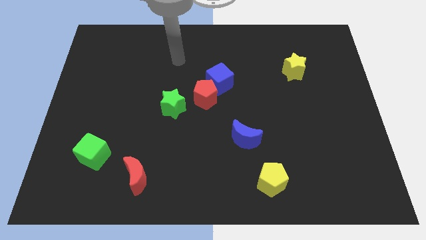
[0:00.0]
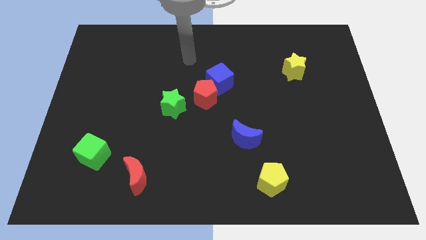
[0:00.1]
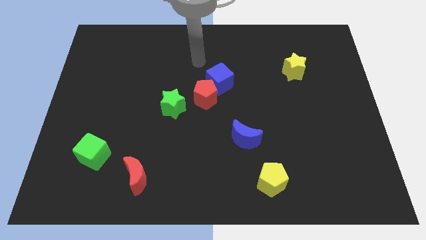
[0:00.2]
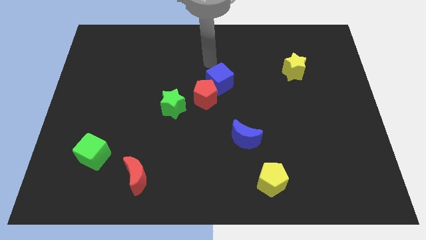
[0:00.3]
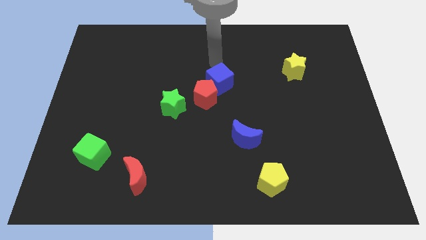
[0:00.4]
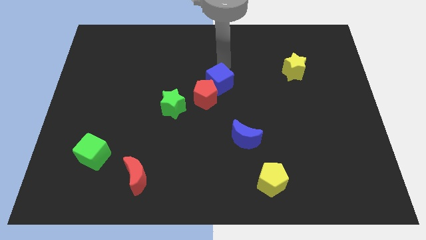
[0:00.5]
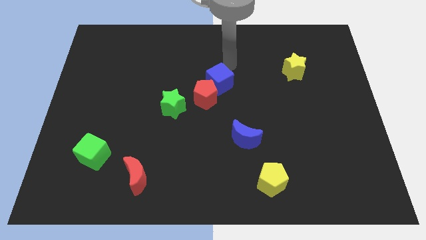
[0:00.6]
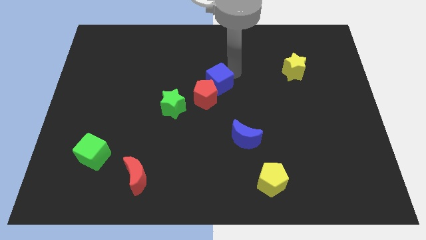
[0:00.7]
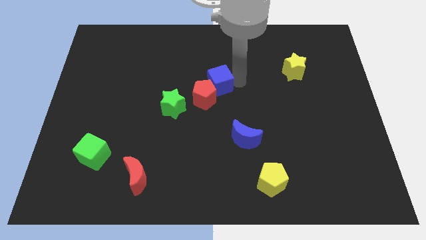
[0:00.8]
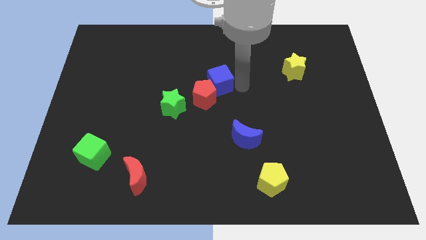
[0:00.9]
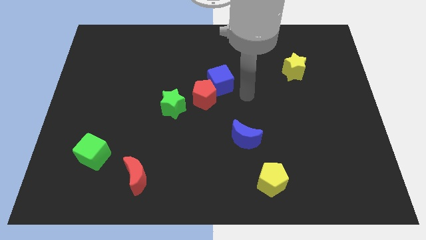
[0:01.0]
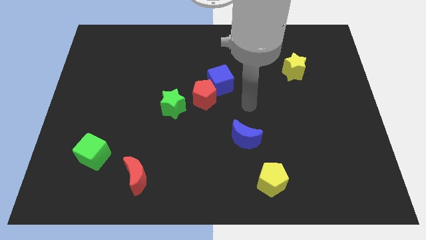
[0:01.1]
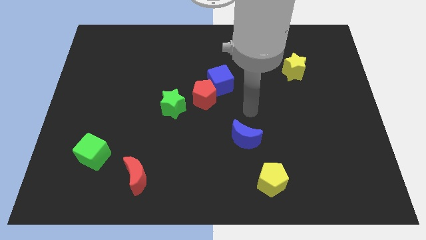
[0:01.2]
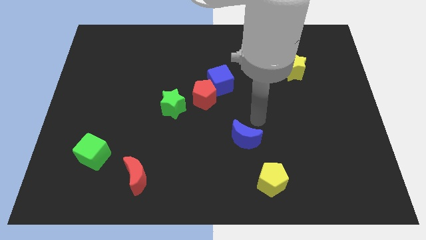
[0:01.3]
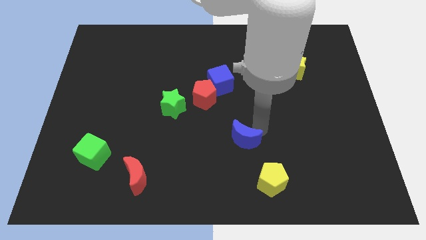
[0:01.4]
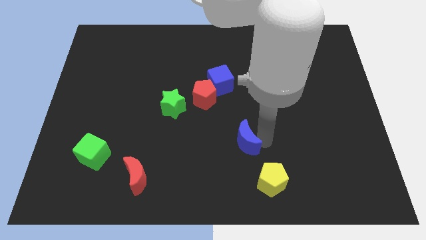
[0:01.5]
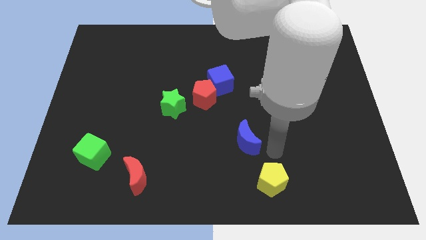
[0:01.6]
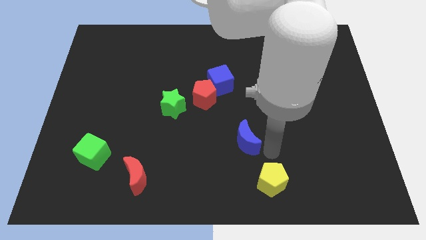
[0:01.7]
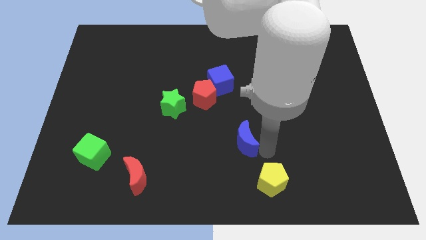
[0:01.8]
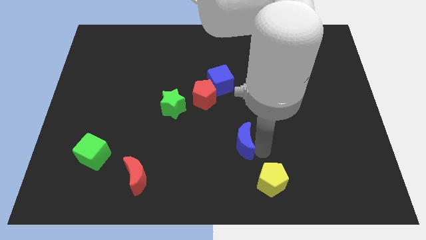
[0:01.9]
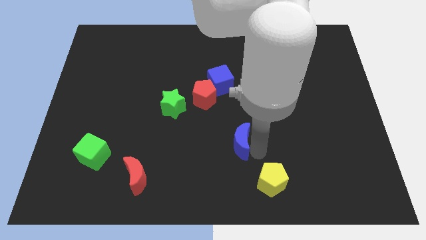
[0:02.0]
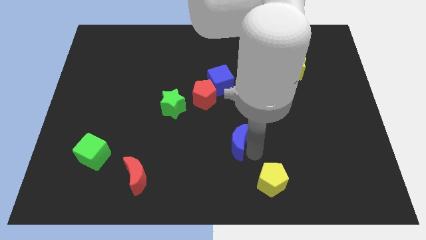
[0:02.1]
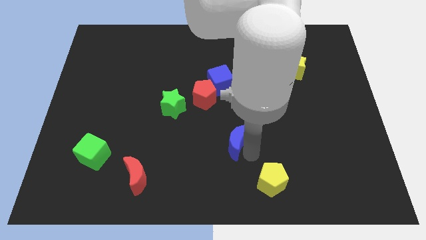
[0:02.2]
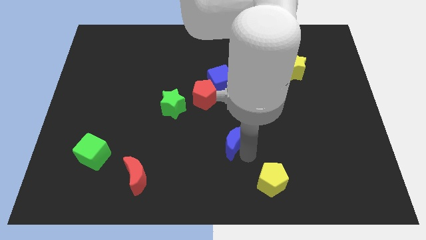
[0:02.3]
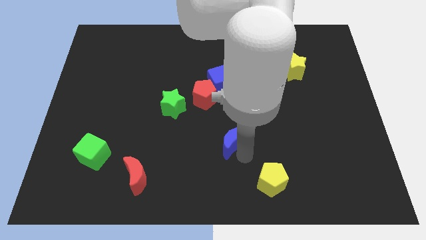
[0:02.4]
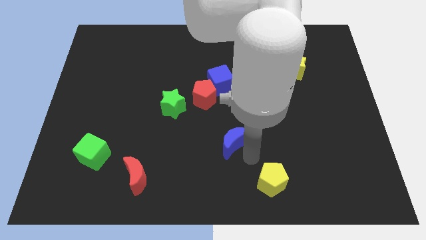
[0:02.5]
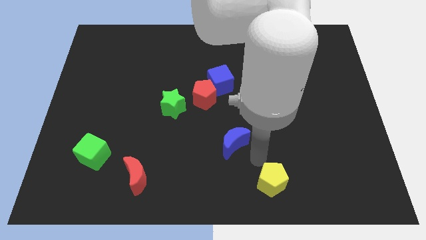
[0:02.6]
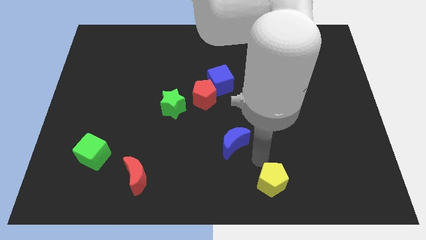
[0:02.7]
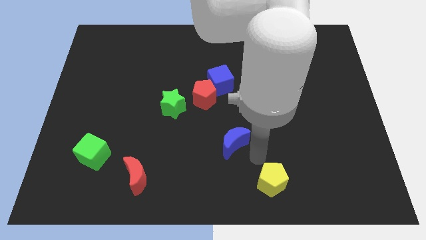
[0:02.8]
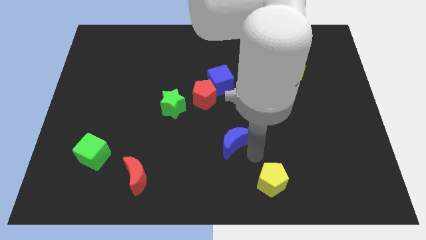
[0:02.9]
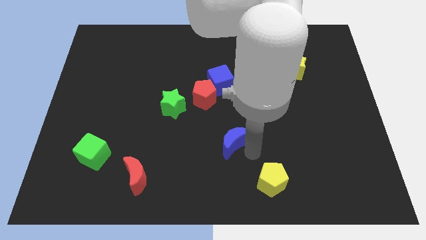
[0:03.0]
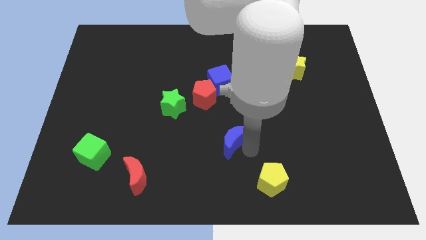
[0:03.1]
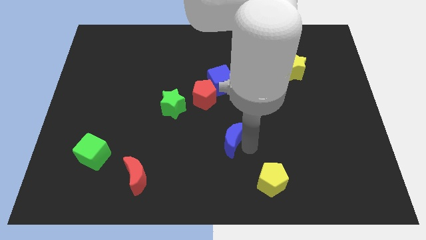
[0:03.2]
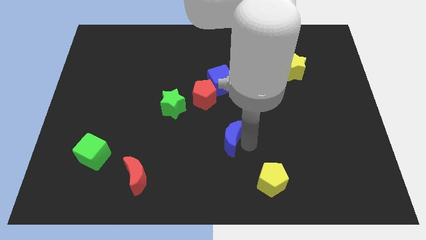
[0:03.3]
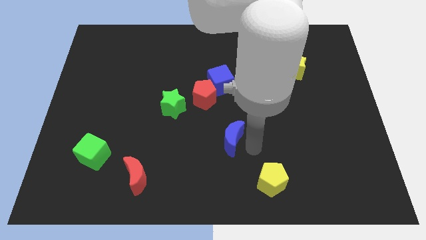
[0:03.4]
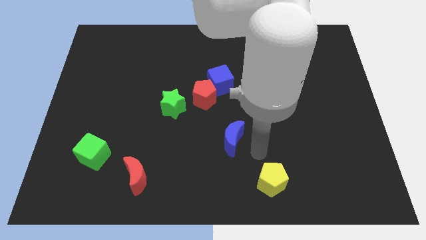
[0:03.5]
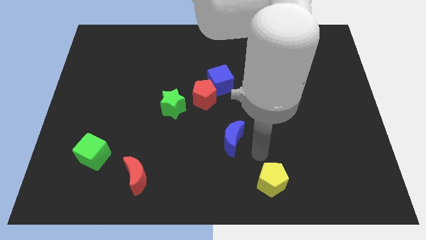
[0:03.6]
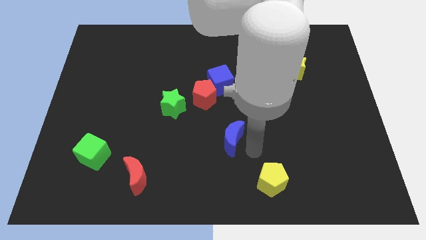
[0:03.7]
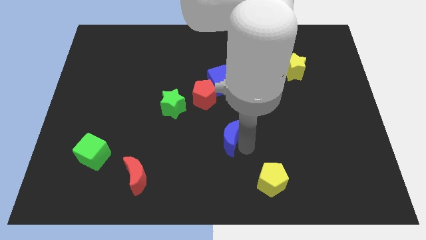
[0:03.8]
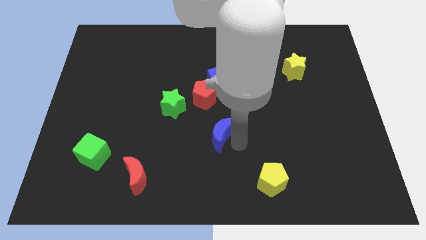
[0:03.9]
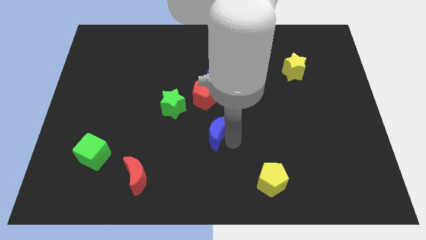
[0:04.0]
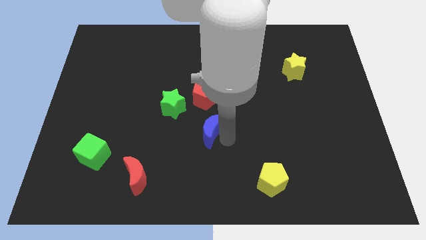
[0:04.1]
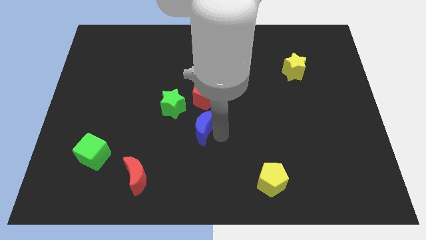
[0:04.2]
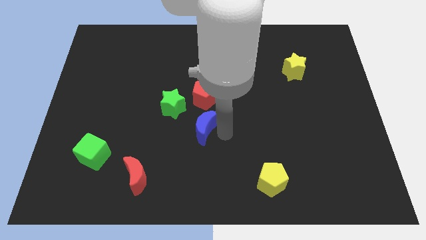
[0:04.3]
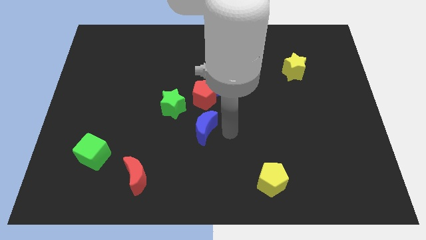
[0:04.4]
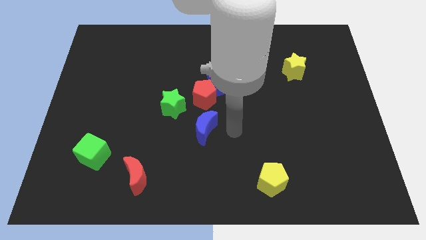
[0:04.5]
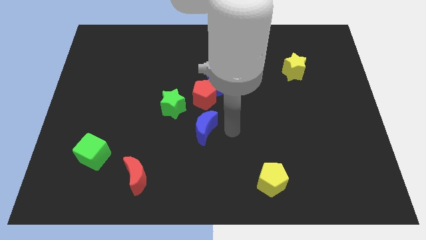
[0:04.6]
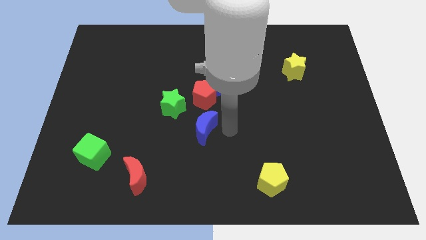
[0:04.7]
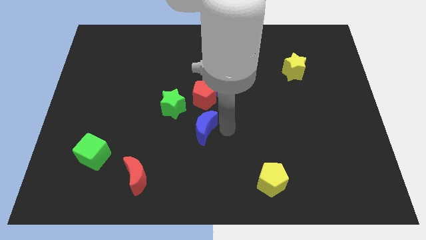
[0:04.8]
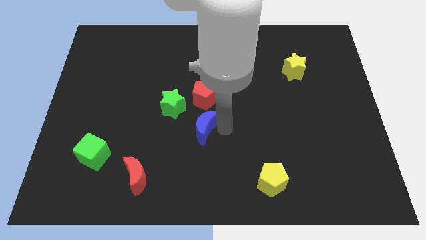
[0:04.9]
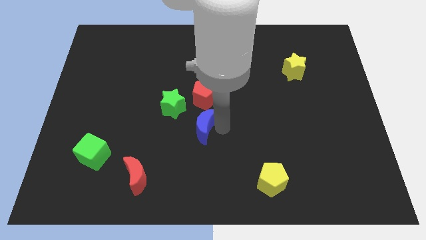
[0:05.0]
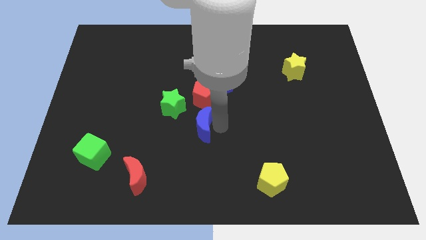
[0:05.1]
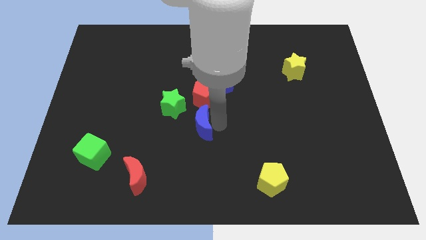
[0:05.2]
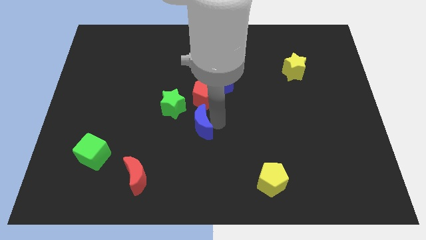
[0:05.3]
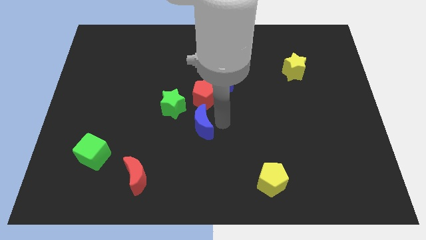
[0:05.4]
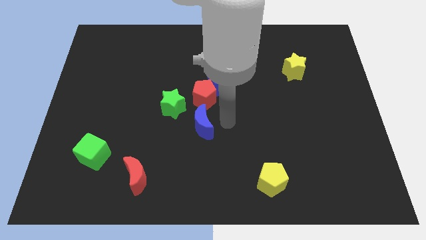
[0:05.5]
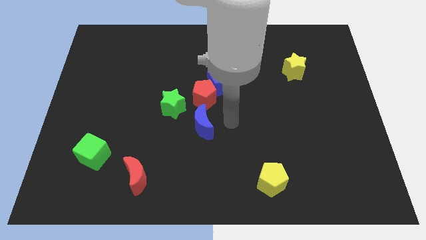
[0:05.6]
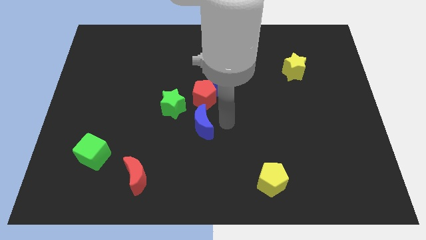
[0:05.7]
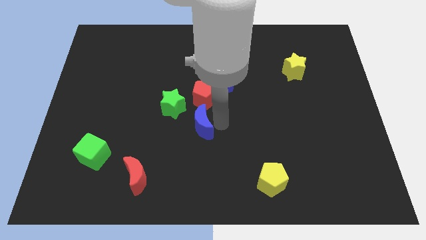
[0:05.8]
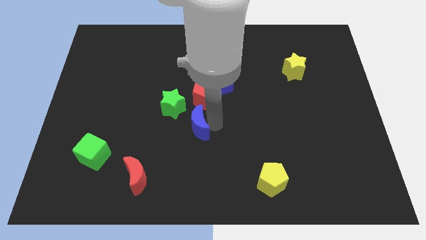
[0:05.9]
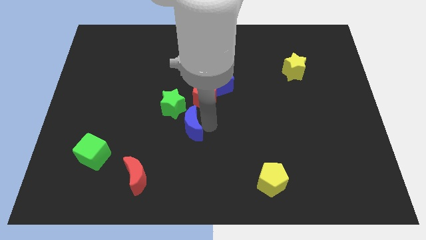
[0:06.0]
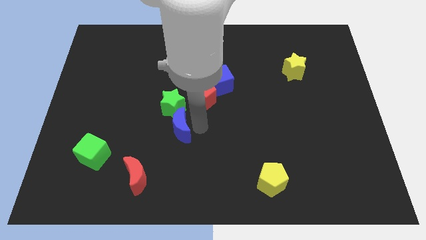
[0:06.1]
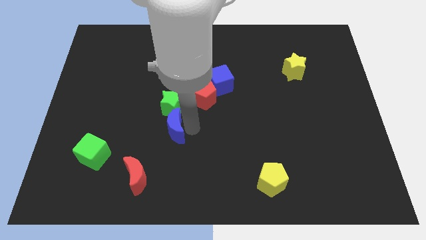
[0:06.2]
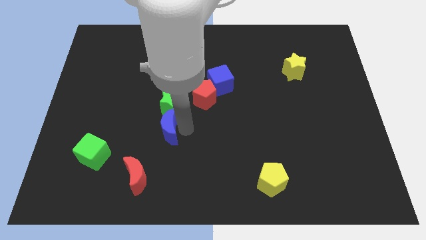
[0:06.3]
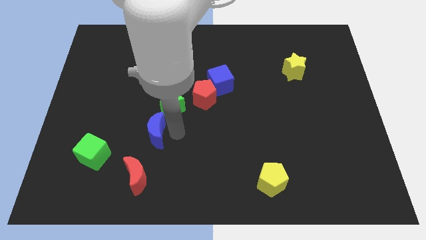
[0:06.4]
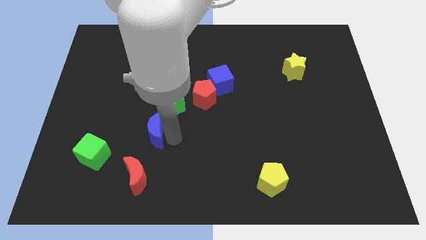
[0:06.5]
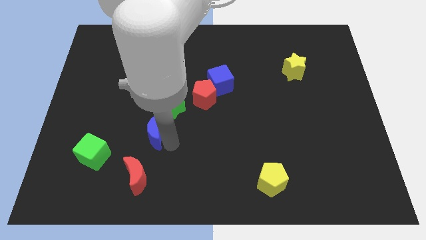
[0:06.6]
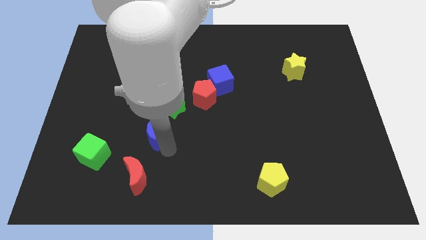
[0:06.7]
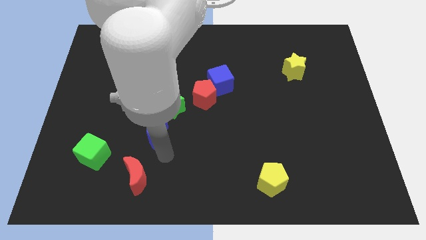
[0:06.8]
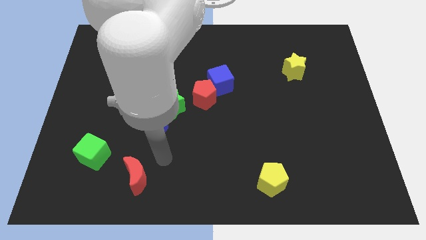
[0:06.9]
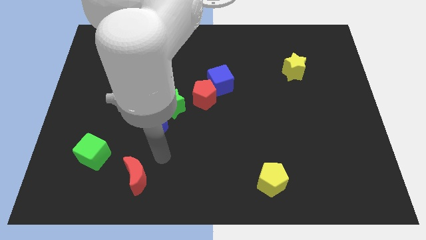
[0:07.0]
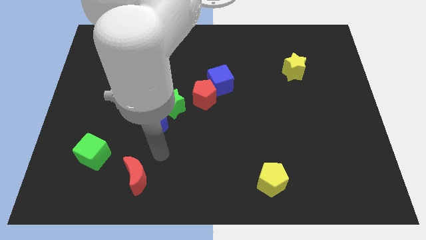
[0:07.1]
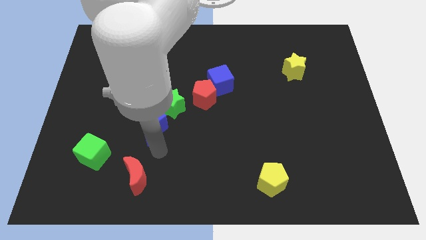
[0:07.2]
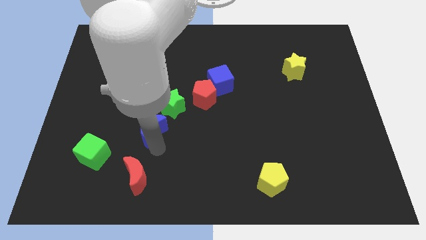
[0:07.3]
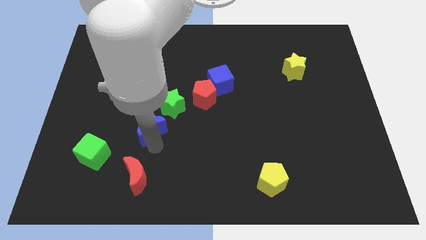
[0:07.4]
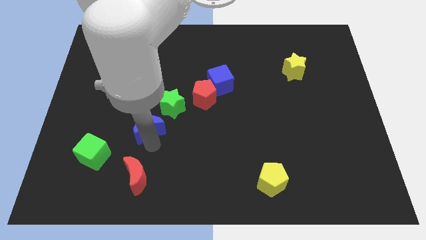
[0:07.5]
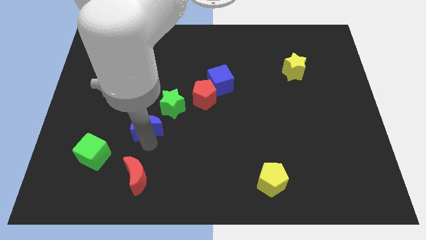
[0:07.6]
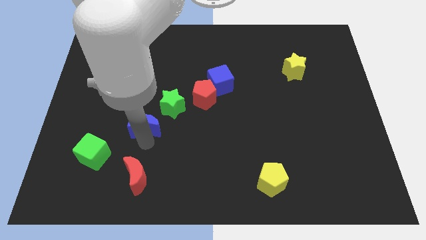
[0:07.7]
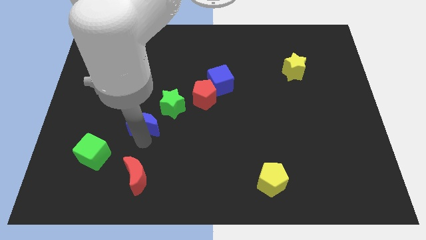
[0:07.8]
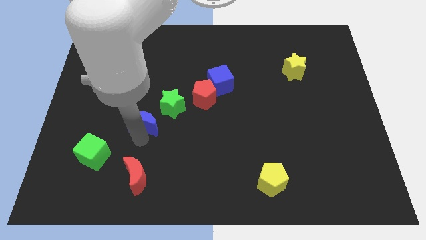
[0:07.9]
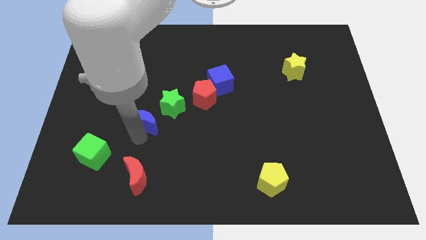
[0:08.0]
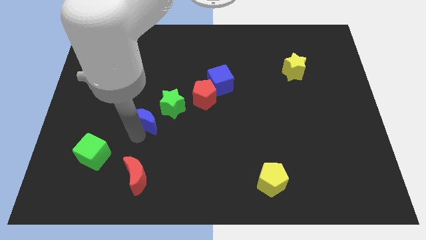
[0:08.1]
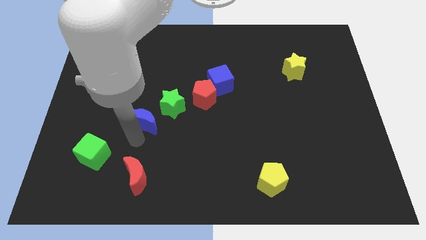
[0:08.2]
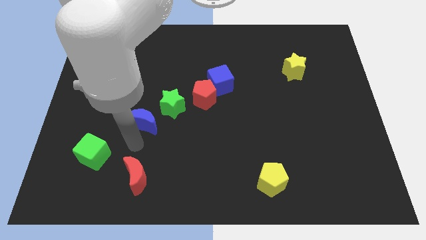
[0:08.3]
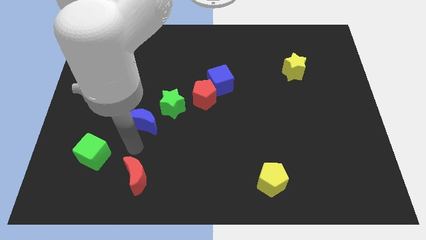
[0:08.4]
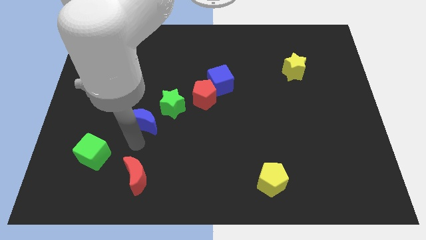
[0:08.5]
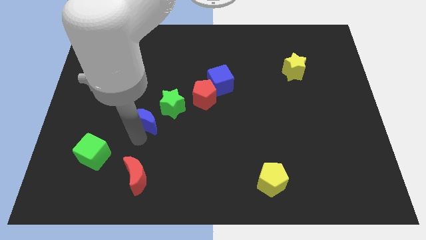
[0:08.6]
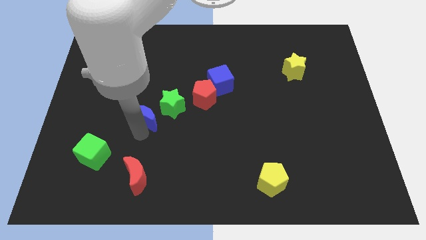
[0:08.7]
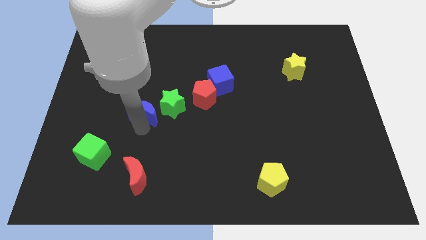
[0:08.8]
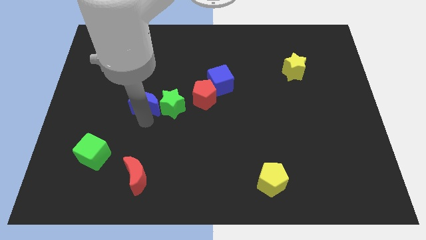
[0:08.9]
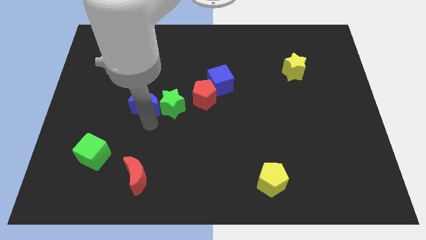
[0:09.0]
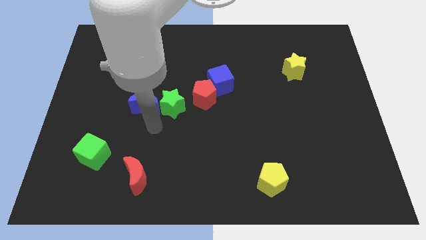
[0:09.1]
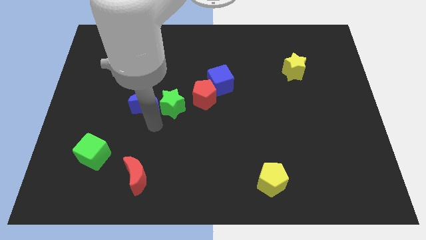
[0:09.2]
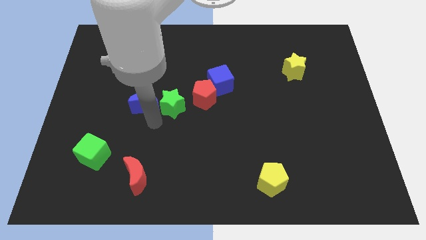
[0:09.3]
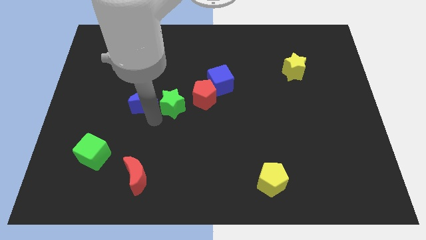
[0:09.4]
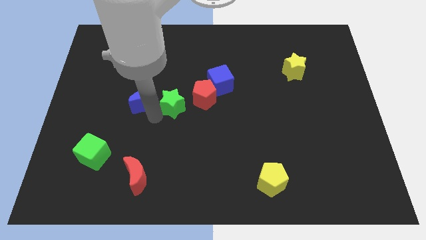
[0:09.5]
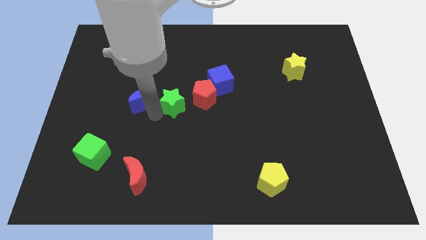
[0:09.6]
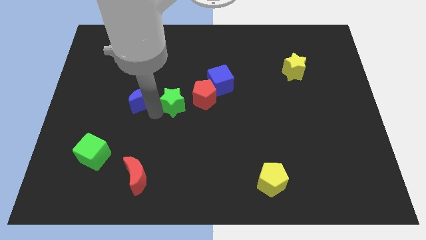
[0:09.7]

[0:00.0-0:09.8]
move the blue moon up and left
